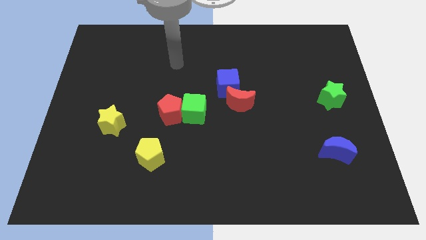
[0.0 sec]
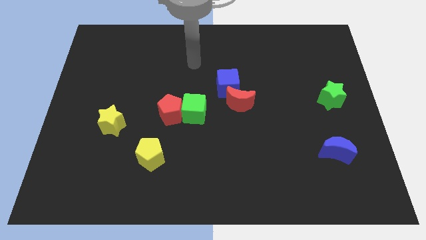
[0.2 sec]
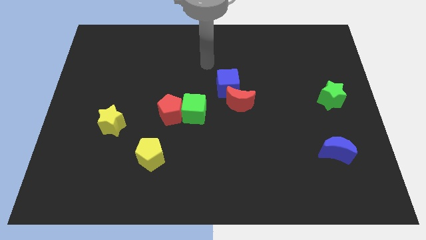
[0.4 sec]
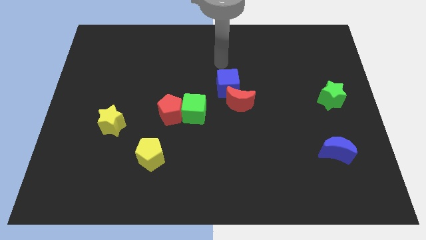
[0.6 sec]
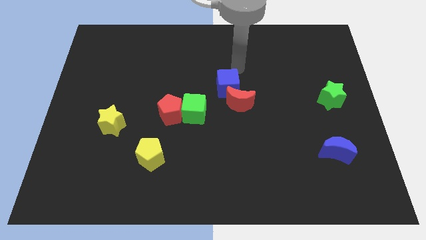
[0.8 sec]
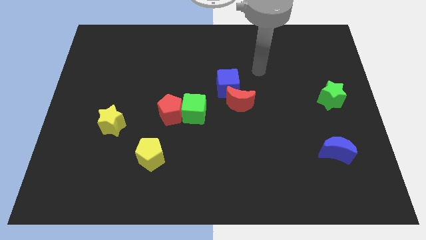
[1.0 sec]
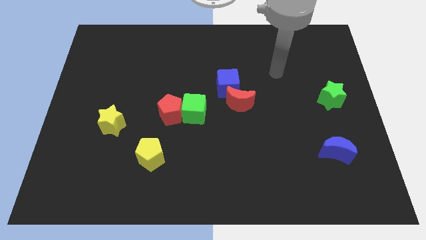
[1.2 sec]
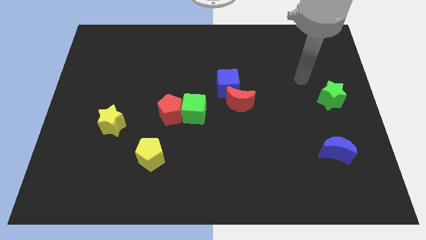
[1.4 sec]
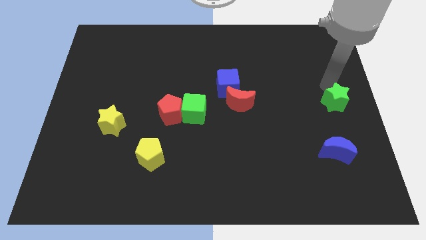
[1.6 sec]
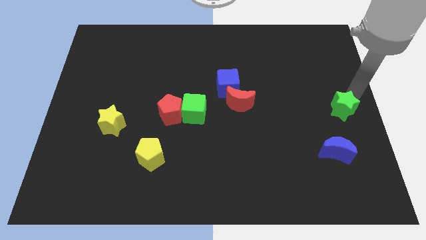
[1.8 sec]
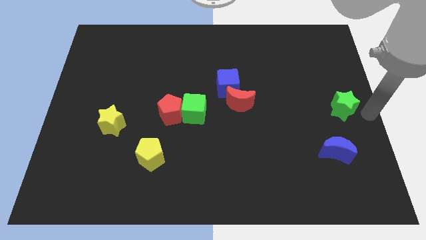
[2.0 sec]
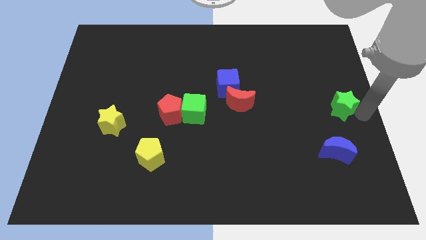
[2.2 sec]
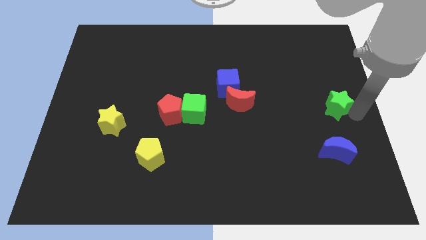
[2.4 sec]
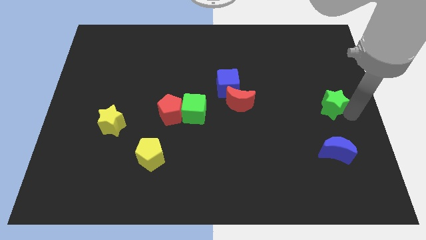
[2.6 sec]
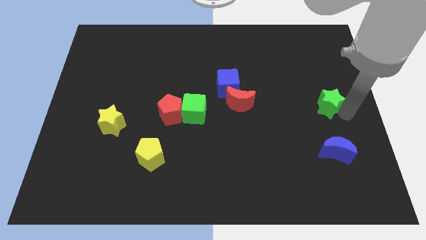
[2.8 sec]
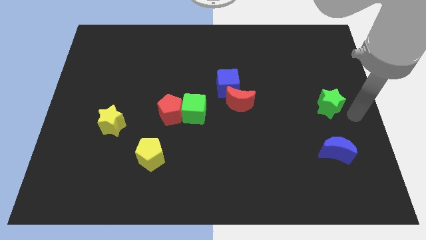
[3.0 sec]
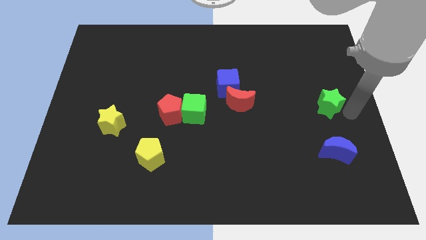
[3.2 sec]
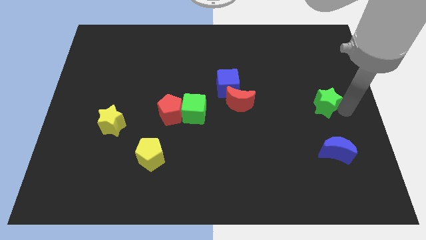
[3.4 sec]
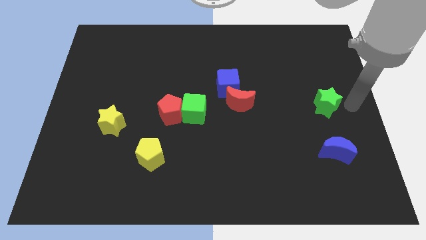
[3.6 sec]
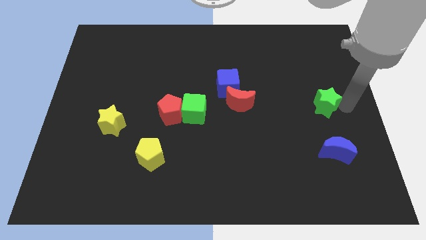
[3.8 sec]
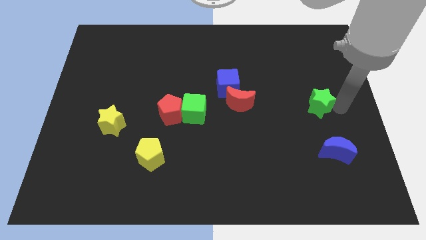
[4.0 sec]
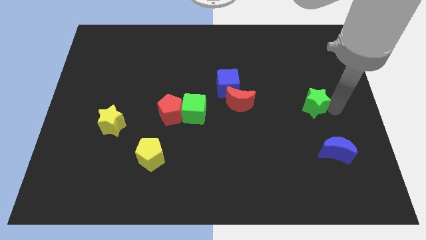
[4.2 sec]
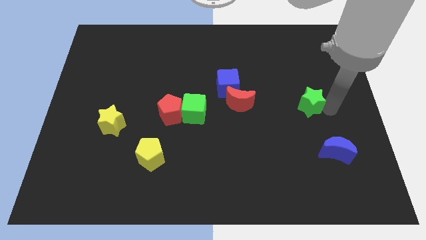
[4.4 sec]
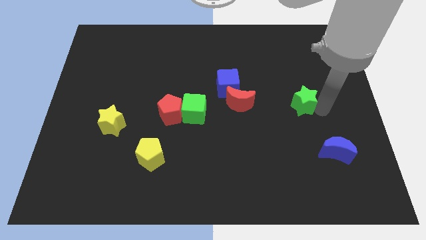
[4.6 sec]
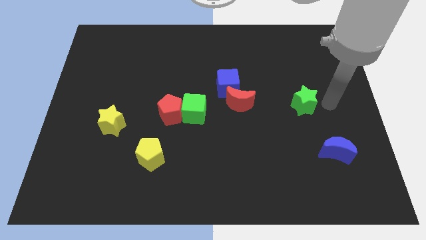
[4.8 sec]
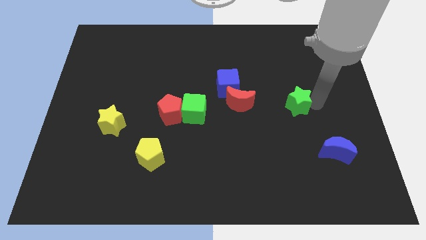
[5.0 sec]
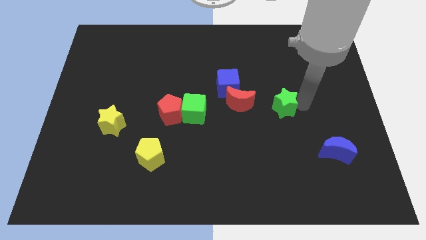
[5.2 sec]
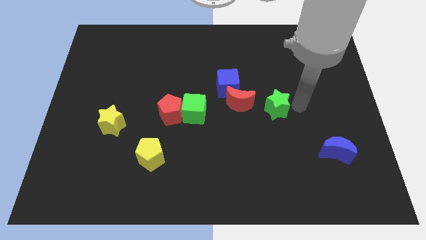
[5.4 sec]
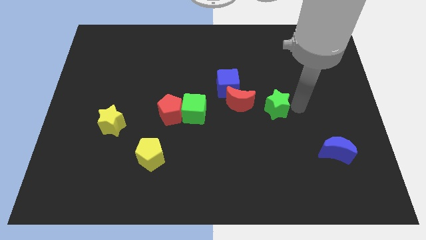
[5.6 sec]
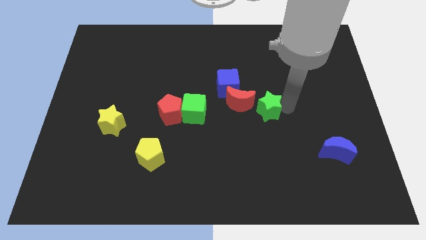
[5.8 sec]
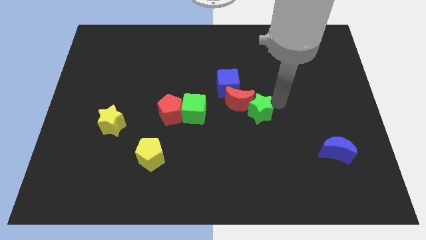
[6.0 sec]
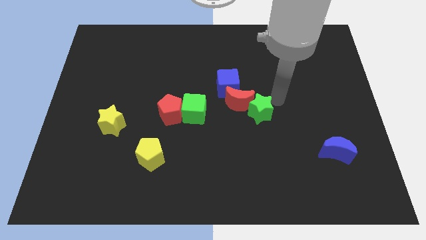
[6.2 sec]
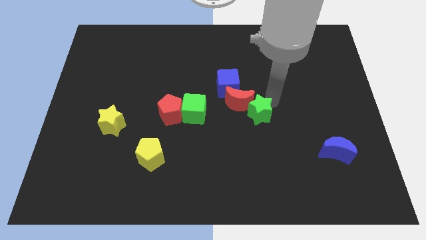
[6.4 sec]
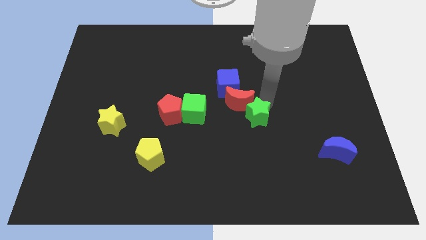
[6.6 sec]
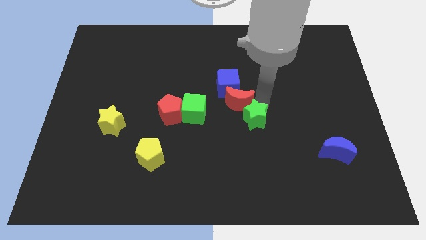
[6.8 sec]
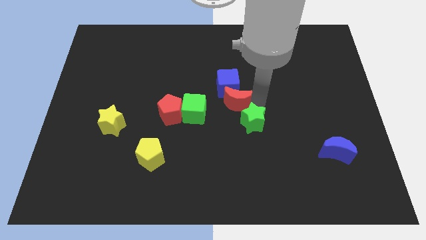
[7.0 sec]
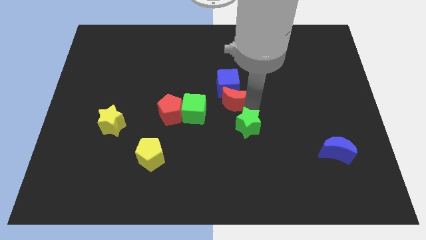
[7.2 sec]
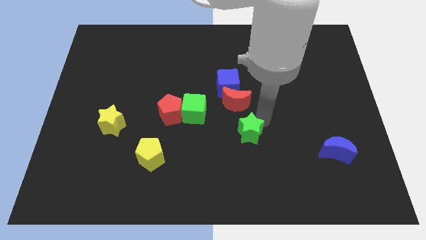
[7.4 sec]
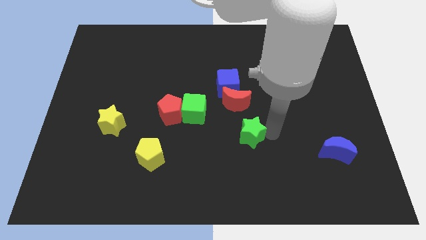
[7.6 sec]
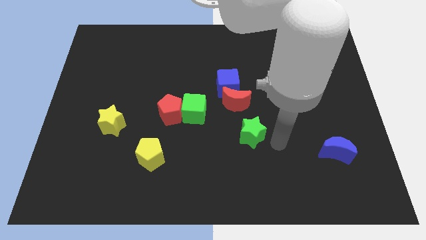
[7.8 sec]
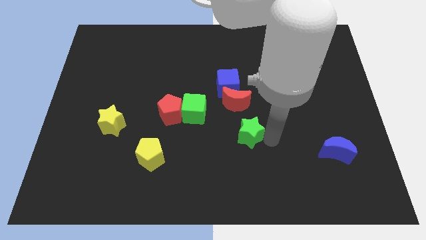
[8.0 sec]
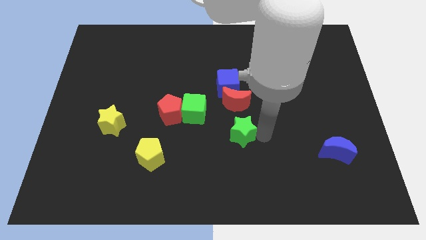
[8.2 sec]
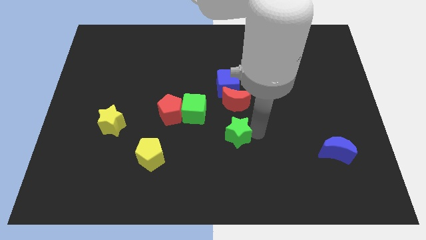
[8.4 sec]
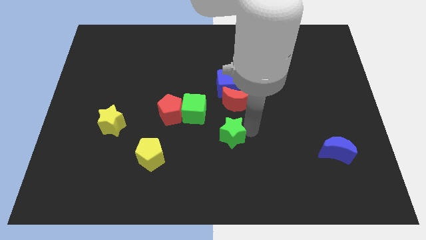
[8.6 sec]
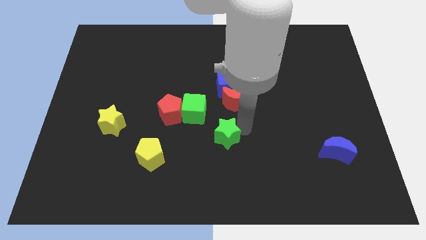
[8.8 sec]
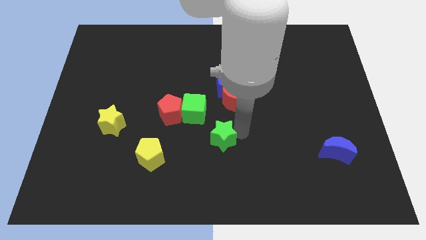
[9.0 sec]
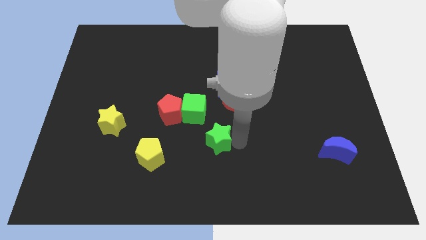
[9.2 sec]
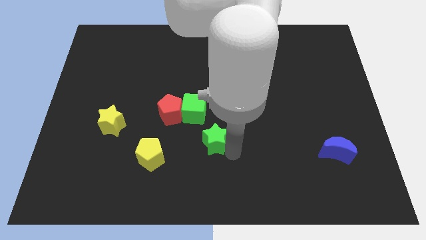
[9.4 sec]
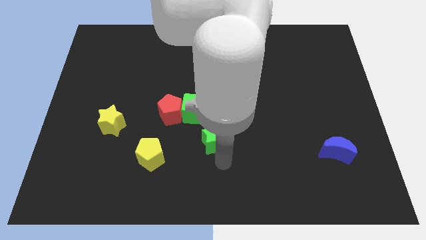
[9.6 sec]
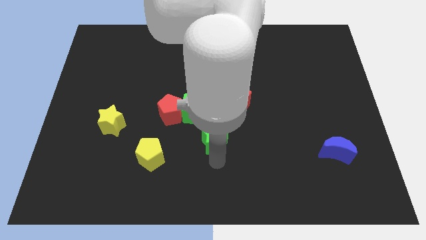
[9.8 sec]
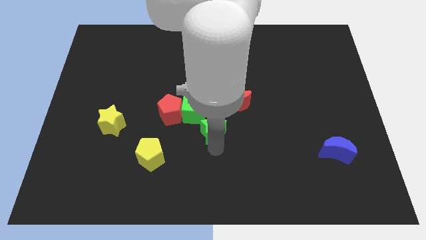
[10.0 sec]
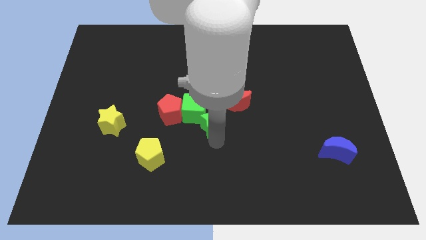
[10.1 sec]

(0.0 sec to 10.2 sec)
put the green star close to the green cube

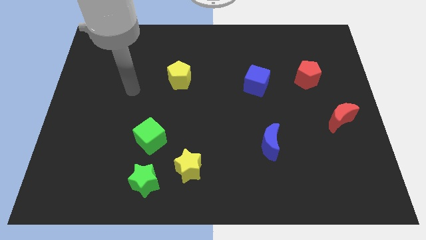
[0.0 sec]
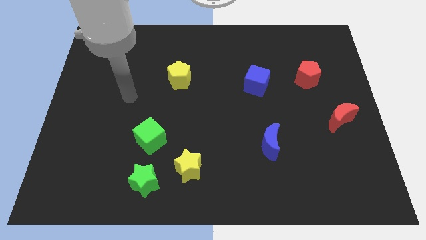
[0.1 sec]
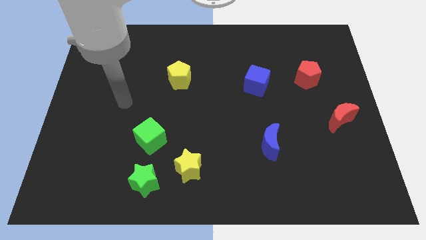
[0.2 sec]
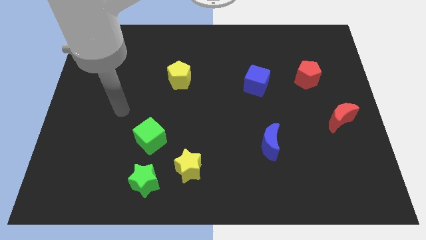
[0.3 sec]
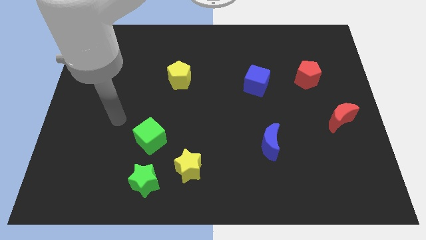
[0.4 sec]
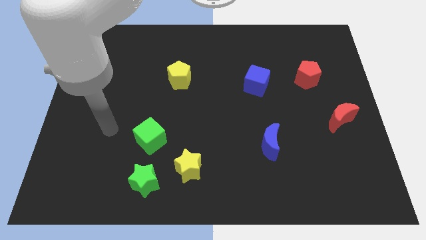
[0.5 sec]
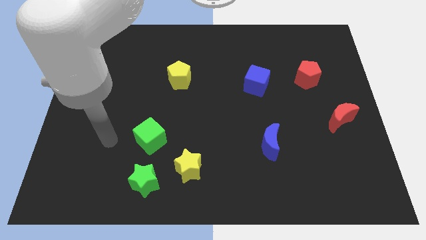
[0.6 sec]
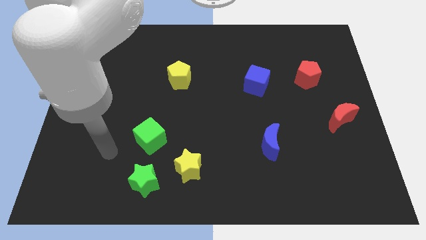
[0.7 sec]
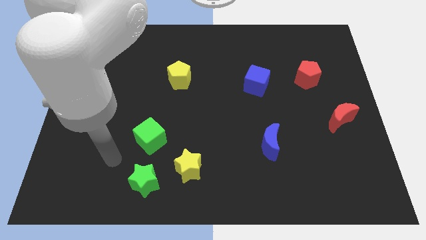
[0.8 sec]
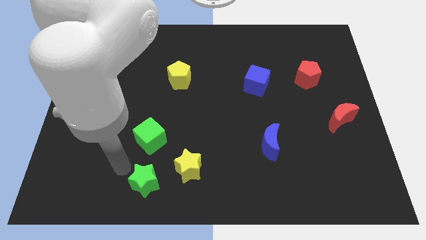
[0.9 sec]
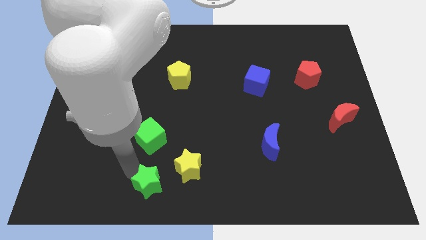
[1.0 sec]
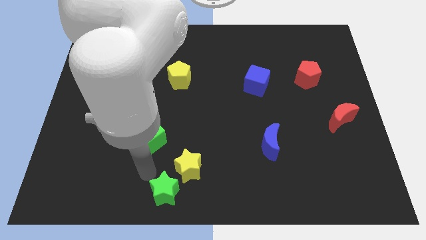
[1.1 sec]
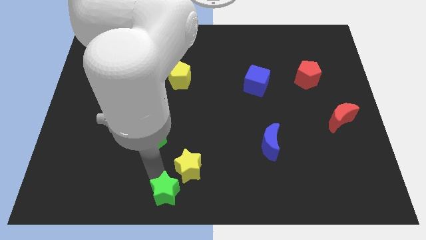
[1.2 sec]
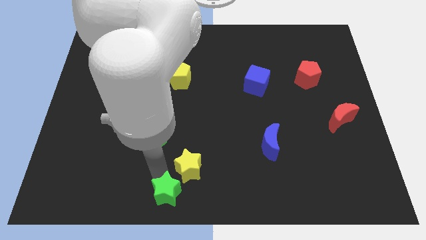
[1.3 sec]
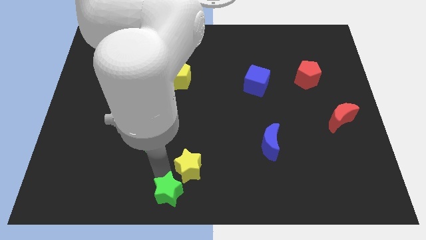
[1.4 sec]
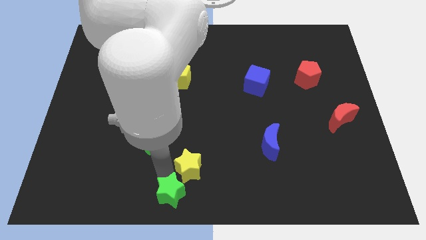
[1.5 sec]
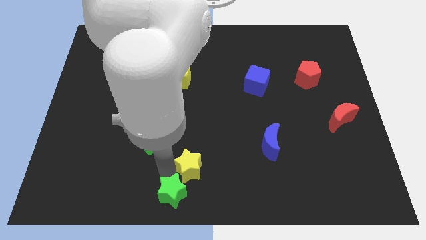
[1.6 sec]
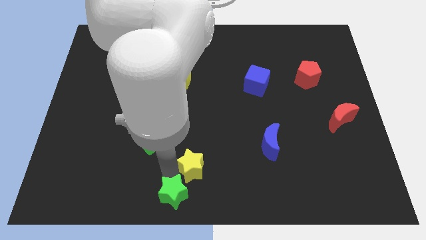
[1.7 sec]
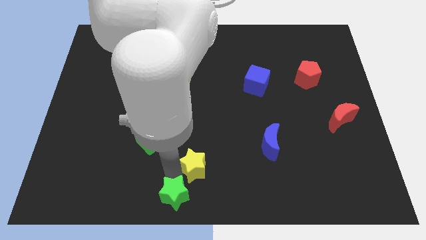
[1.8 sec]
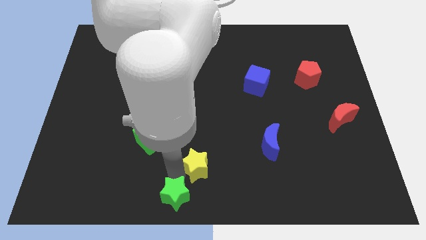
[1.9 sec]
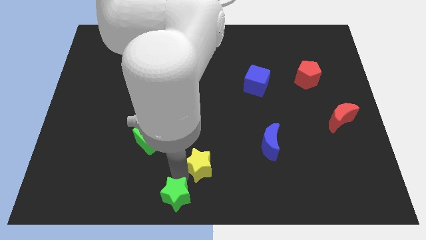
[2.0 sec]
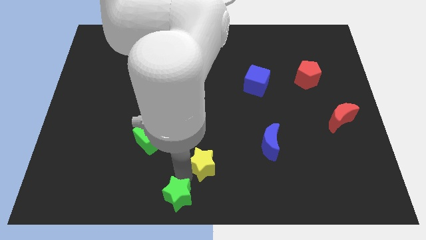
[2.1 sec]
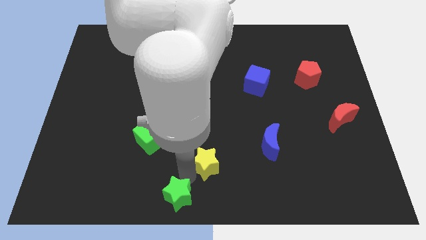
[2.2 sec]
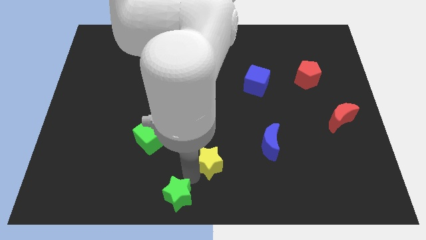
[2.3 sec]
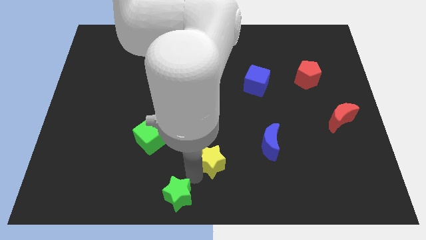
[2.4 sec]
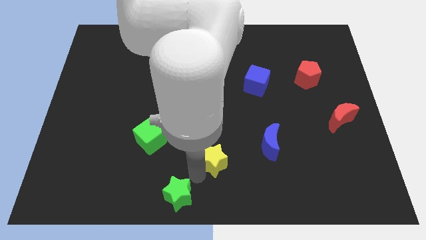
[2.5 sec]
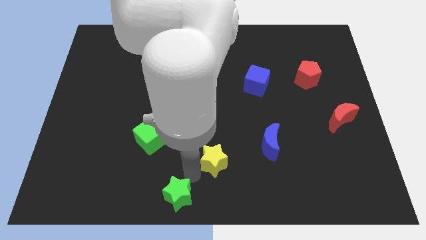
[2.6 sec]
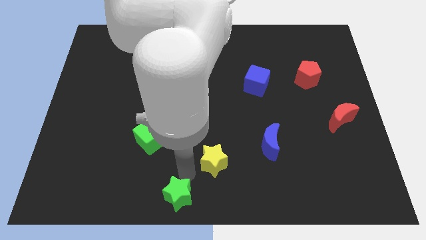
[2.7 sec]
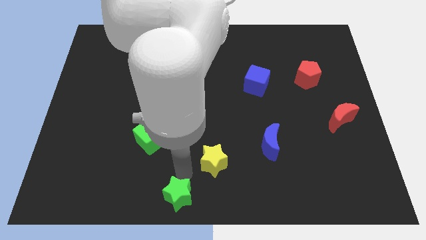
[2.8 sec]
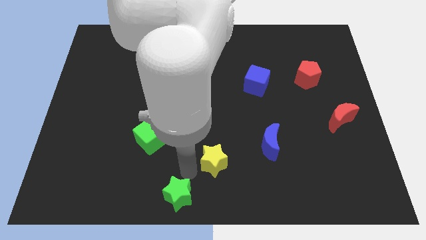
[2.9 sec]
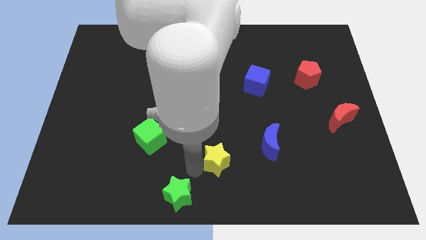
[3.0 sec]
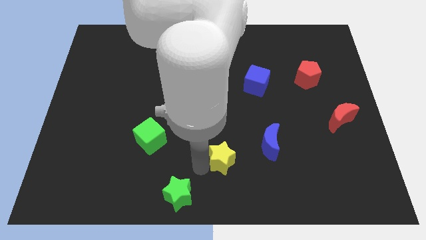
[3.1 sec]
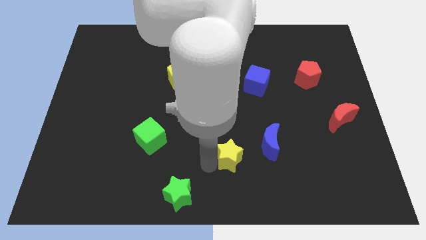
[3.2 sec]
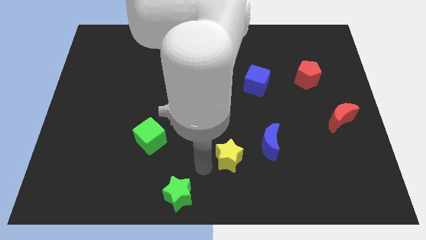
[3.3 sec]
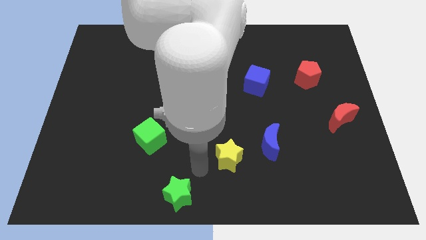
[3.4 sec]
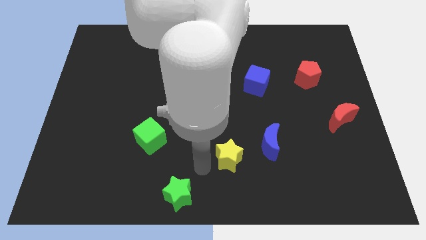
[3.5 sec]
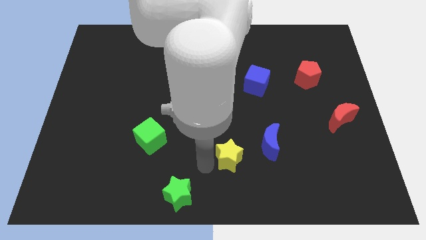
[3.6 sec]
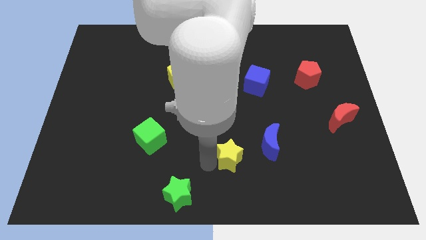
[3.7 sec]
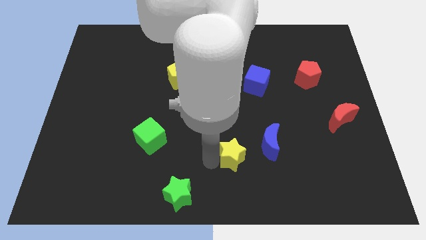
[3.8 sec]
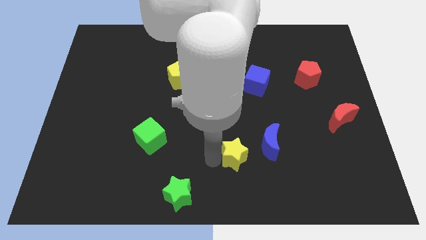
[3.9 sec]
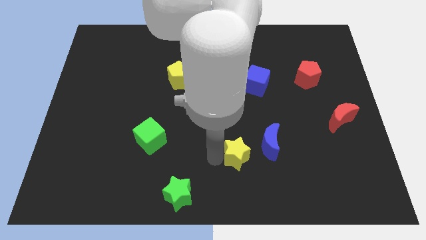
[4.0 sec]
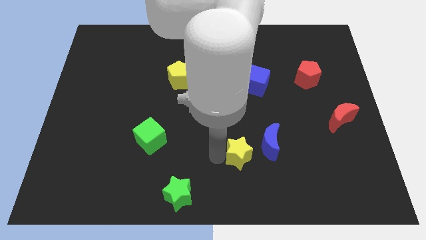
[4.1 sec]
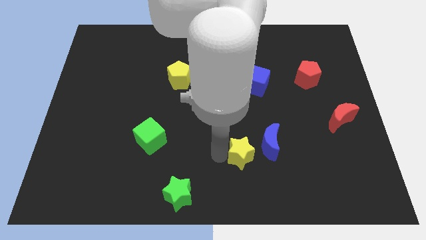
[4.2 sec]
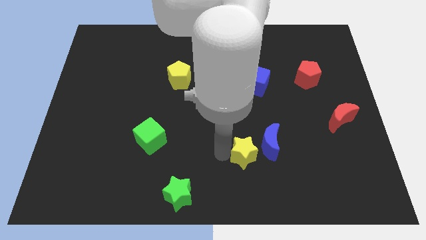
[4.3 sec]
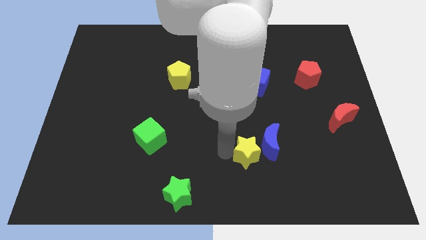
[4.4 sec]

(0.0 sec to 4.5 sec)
move the yellow star next to the blue moon
